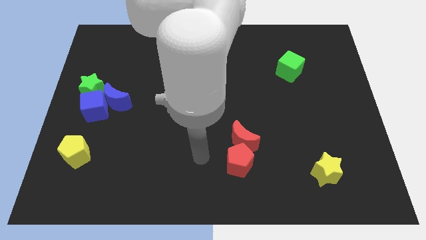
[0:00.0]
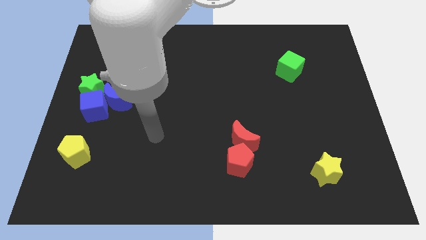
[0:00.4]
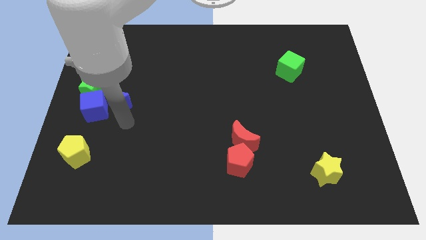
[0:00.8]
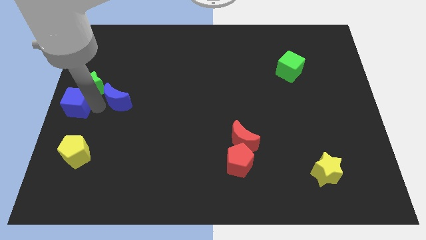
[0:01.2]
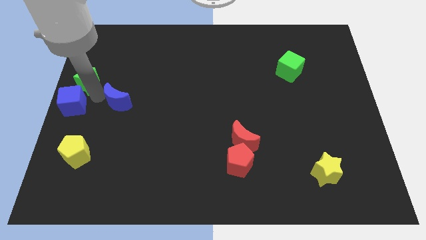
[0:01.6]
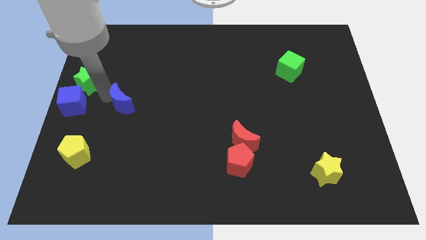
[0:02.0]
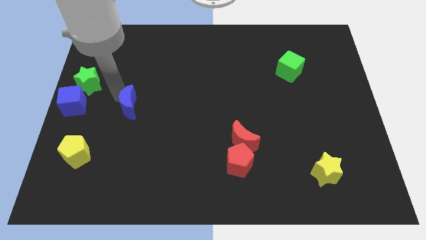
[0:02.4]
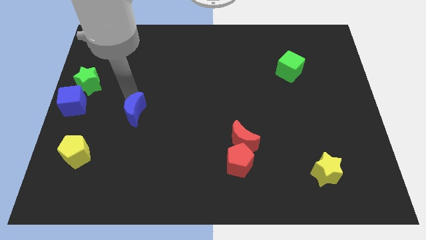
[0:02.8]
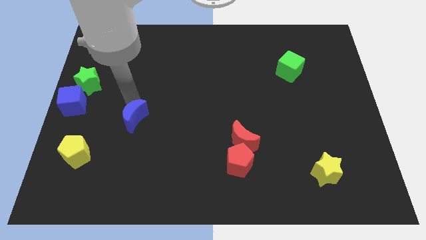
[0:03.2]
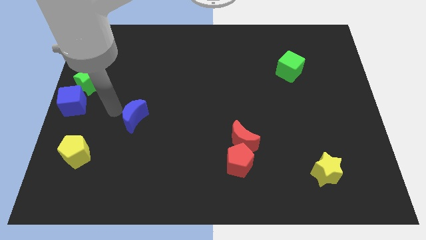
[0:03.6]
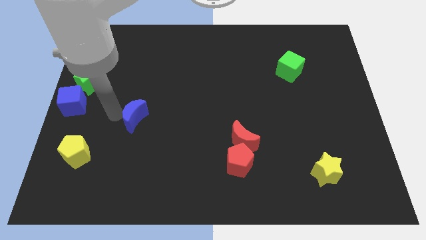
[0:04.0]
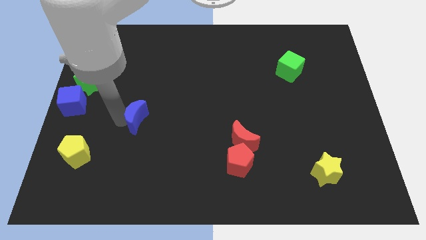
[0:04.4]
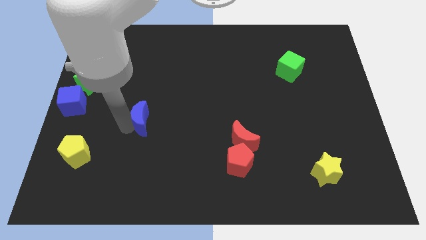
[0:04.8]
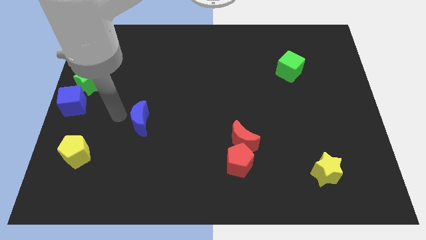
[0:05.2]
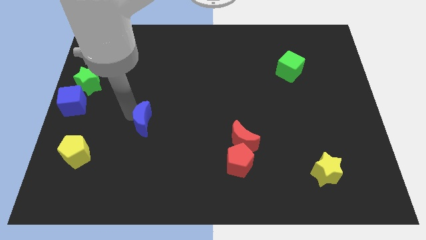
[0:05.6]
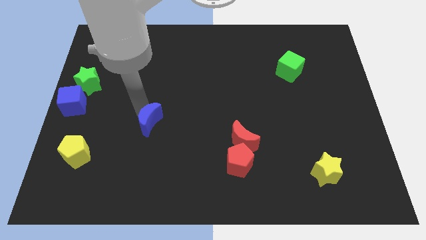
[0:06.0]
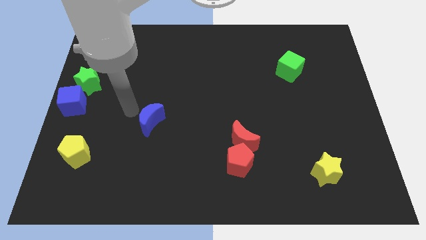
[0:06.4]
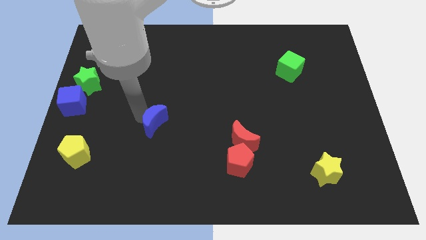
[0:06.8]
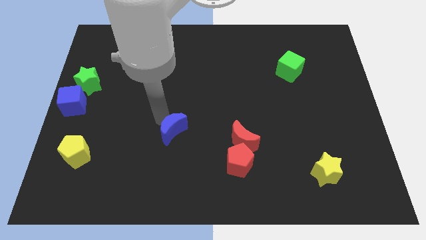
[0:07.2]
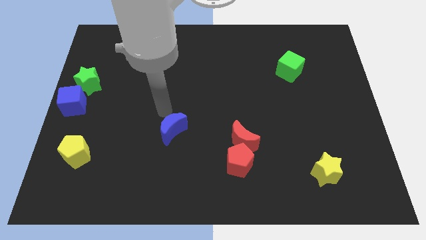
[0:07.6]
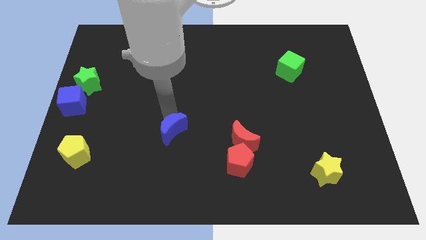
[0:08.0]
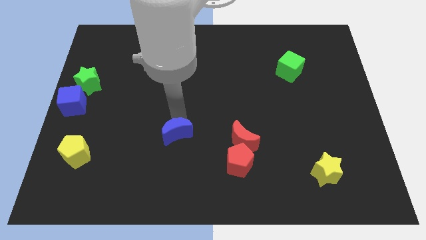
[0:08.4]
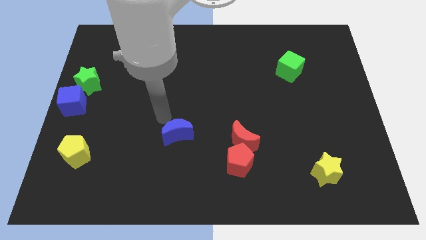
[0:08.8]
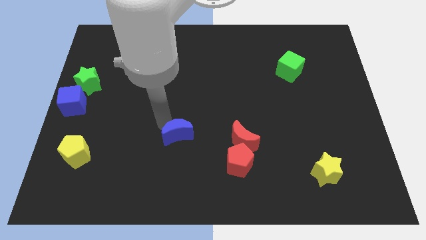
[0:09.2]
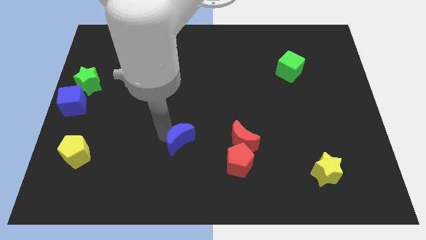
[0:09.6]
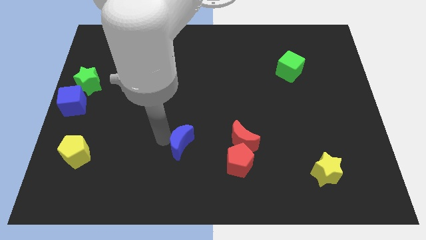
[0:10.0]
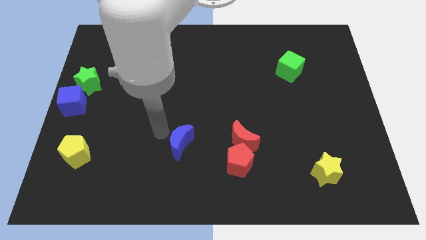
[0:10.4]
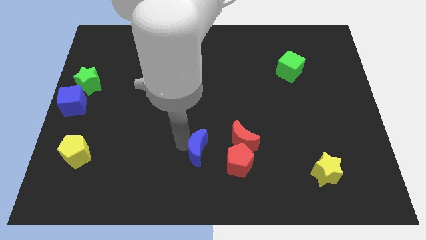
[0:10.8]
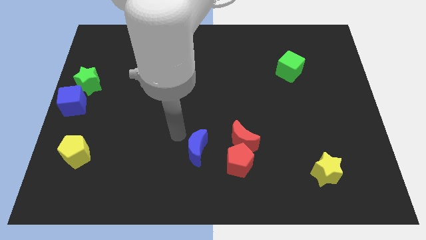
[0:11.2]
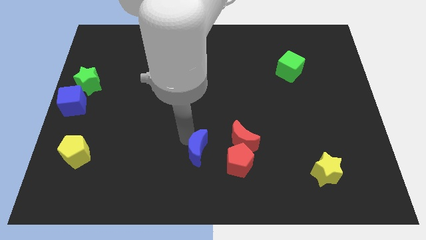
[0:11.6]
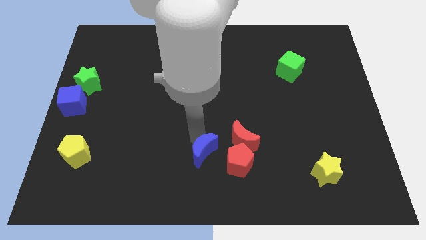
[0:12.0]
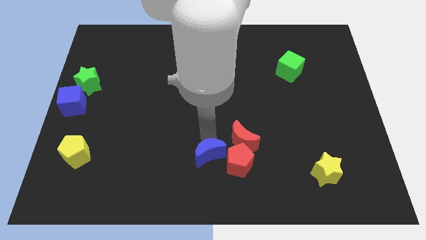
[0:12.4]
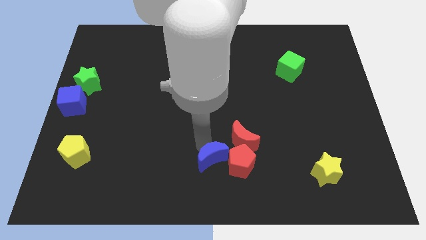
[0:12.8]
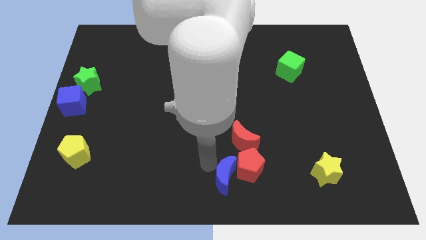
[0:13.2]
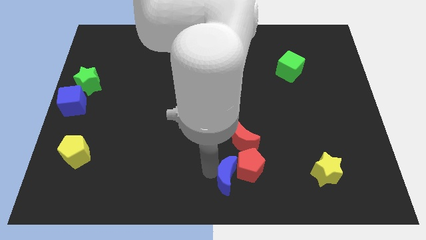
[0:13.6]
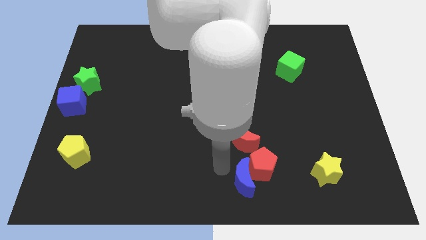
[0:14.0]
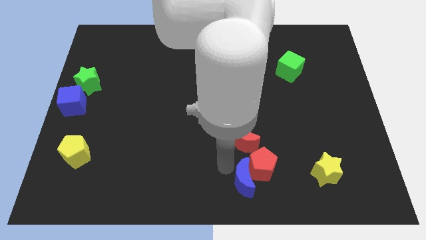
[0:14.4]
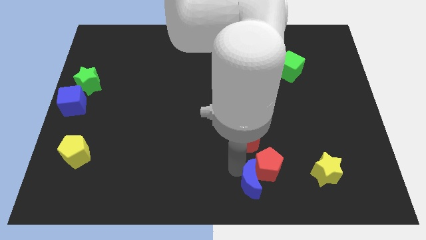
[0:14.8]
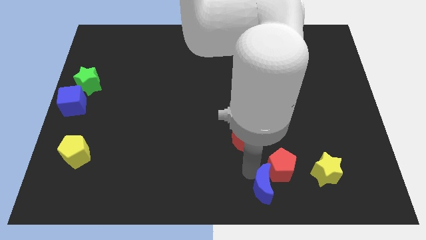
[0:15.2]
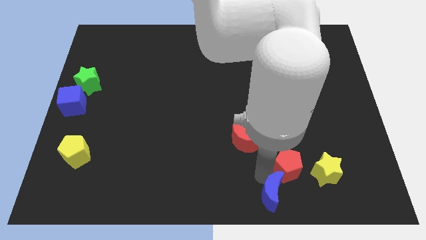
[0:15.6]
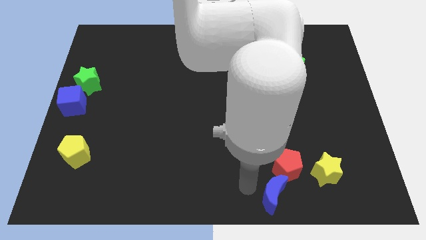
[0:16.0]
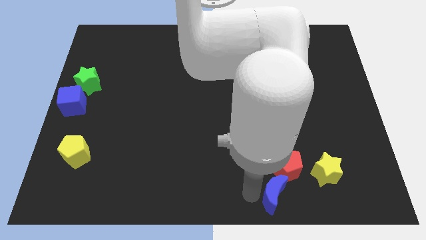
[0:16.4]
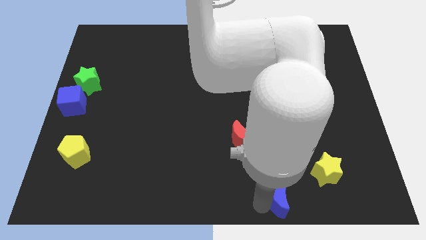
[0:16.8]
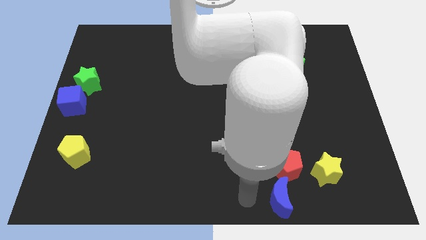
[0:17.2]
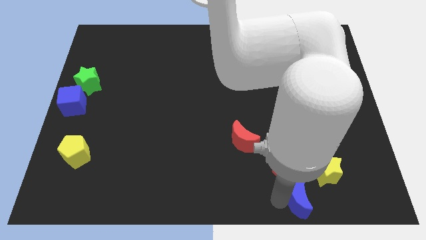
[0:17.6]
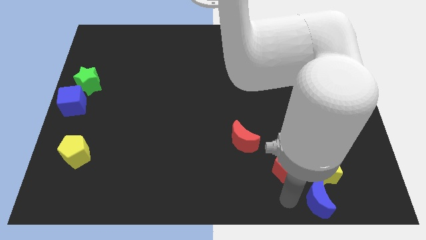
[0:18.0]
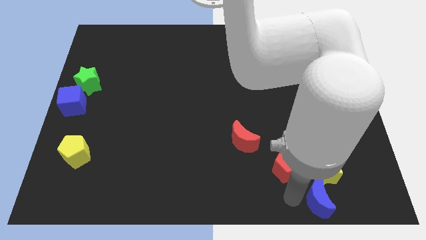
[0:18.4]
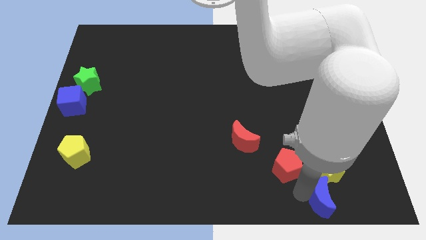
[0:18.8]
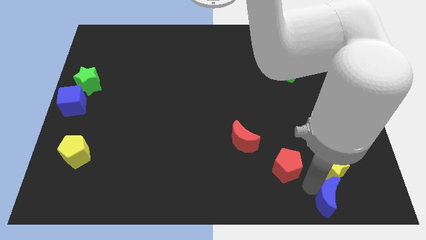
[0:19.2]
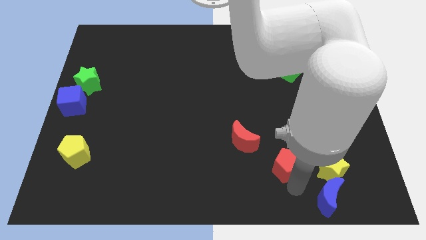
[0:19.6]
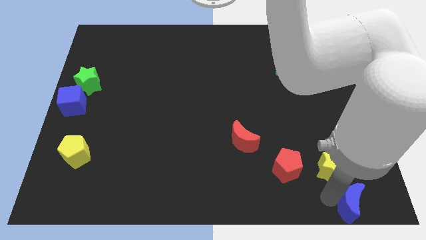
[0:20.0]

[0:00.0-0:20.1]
push the blue moon to the bottom right

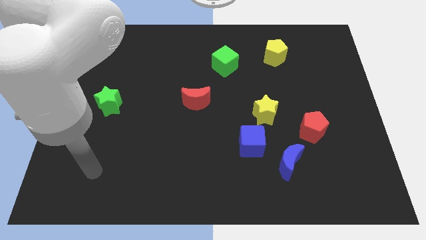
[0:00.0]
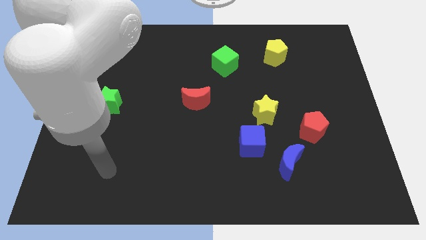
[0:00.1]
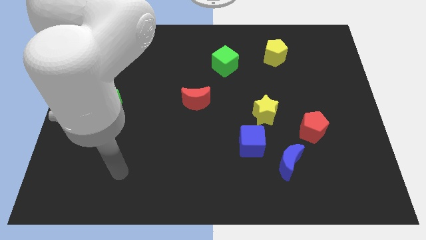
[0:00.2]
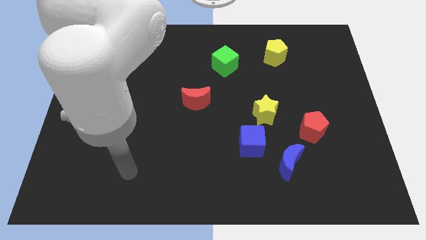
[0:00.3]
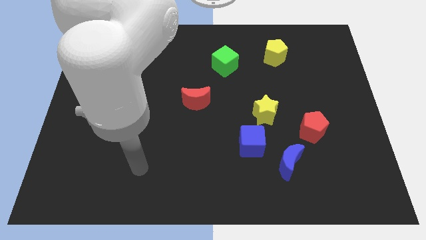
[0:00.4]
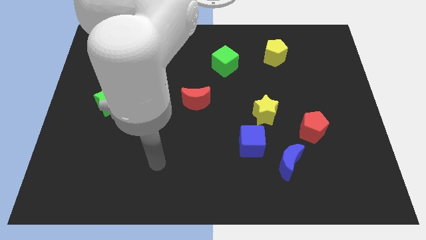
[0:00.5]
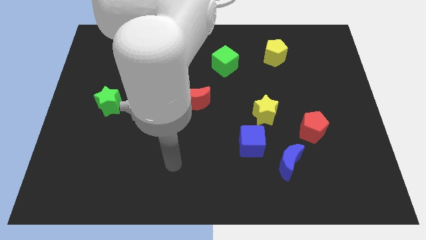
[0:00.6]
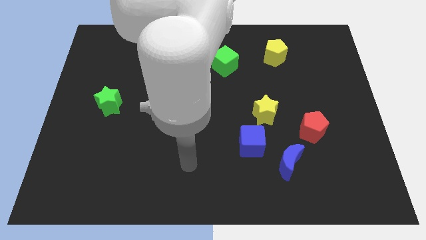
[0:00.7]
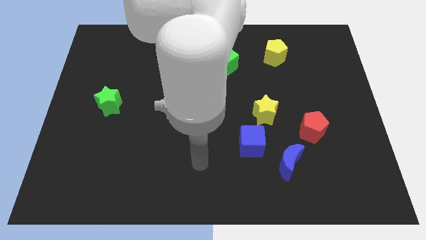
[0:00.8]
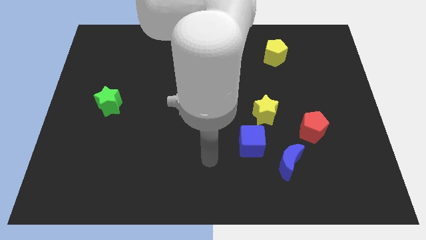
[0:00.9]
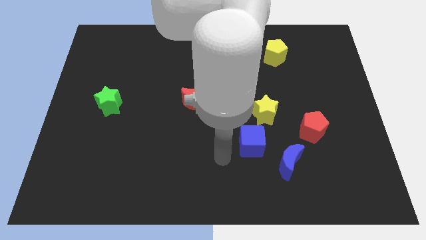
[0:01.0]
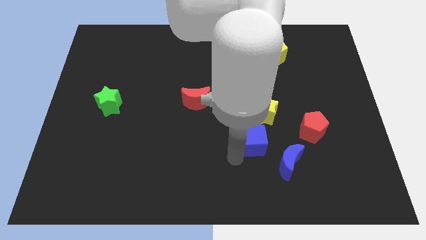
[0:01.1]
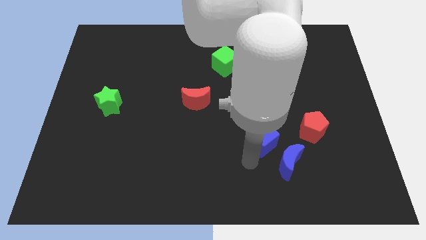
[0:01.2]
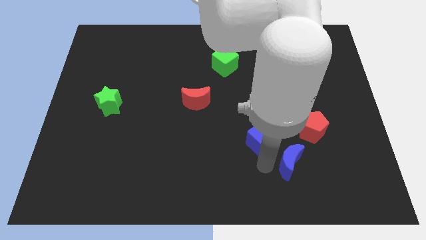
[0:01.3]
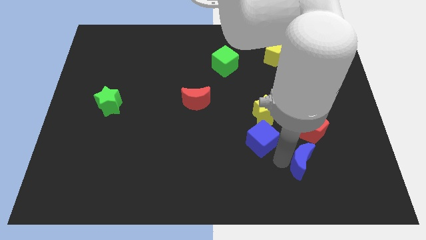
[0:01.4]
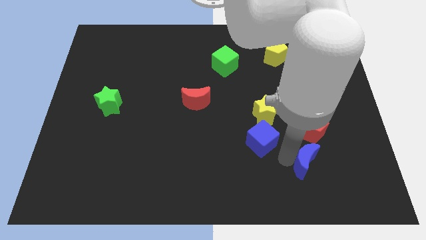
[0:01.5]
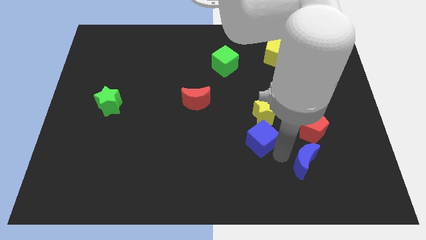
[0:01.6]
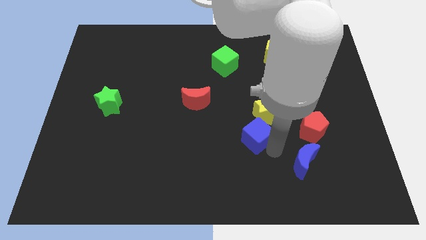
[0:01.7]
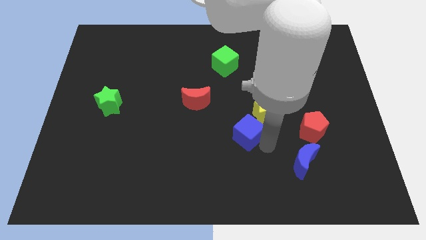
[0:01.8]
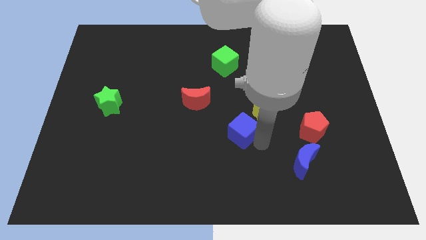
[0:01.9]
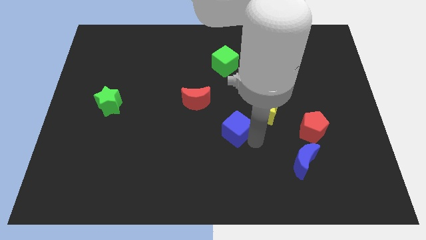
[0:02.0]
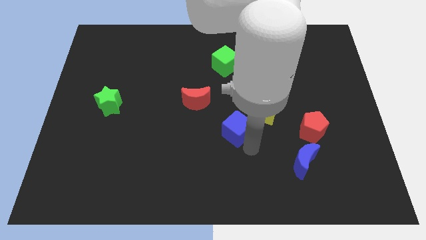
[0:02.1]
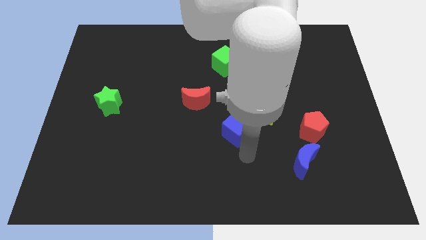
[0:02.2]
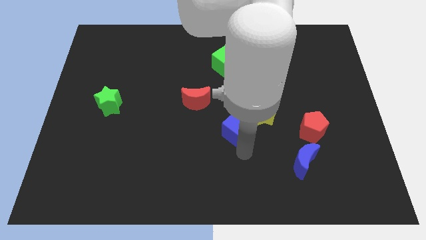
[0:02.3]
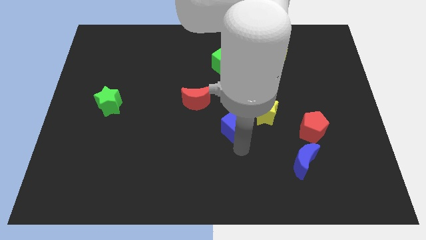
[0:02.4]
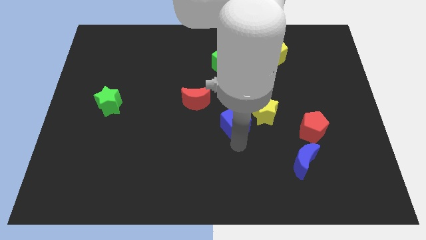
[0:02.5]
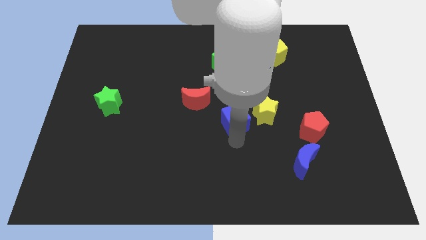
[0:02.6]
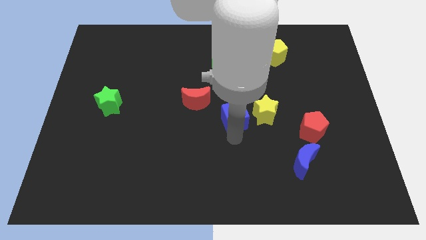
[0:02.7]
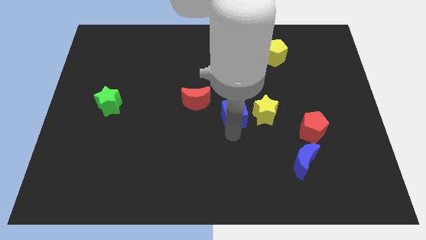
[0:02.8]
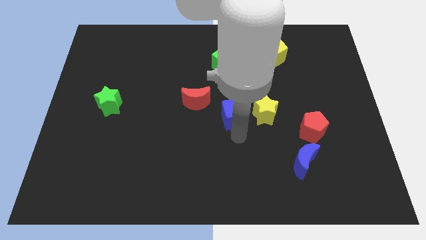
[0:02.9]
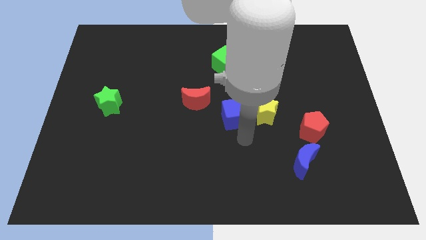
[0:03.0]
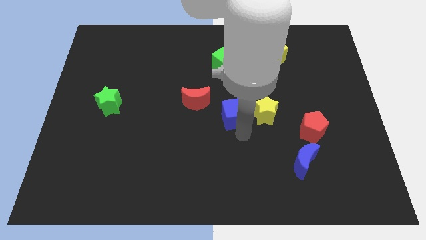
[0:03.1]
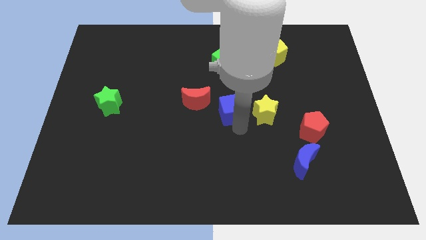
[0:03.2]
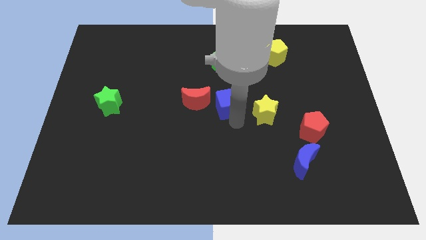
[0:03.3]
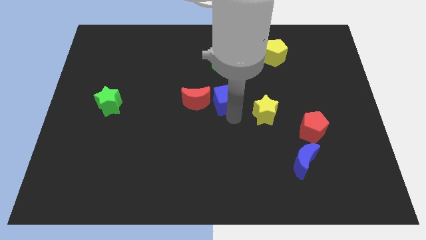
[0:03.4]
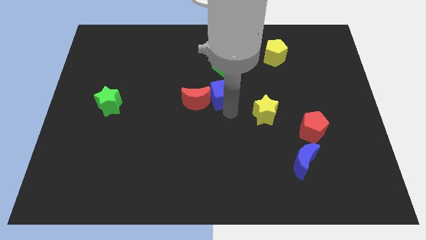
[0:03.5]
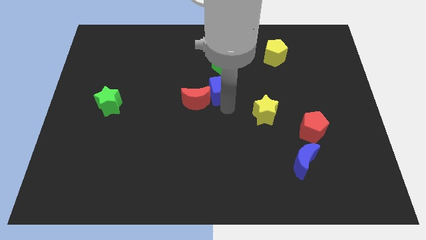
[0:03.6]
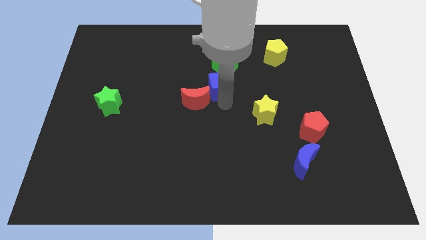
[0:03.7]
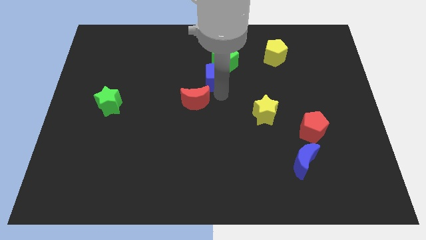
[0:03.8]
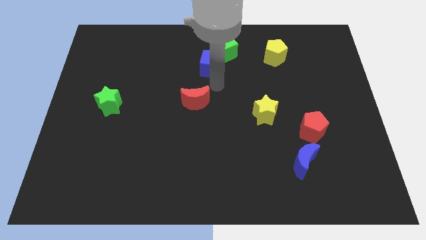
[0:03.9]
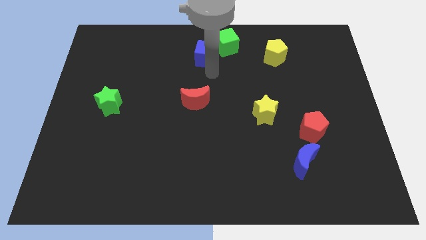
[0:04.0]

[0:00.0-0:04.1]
put the blue cube to the towards your base
